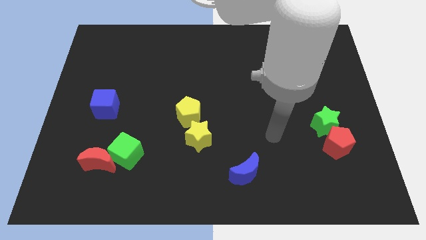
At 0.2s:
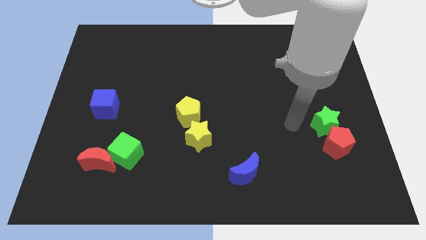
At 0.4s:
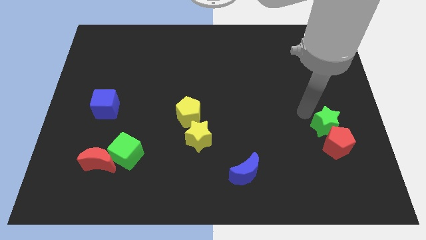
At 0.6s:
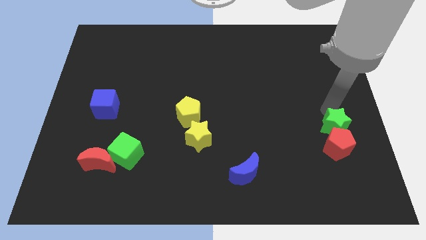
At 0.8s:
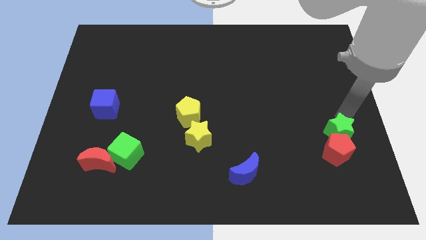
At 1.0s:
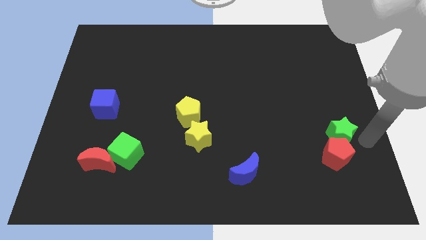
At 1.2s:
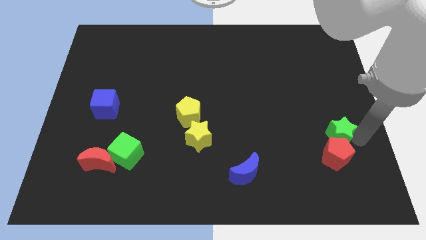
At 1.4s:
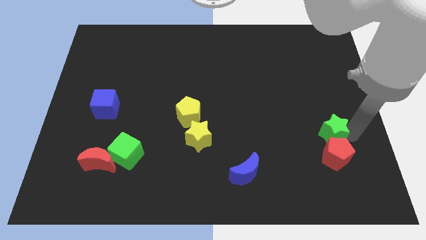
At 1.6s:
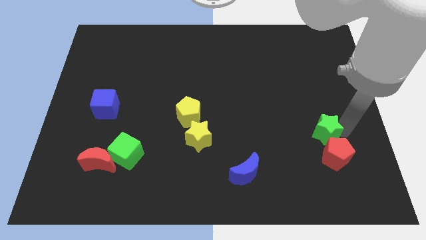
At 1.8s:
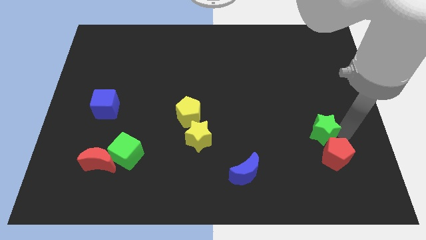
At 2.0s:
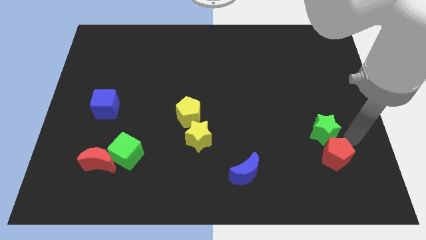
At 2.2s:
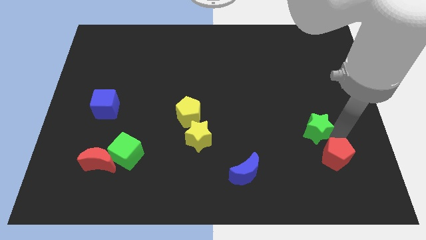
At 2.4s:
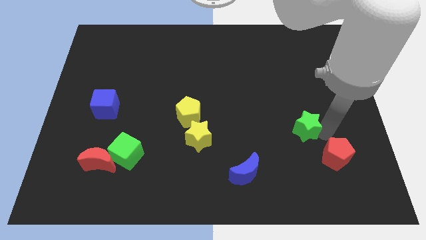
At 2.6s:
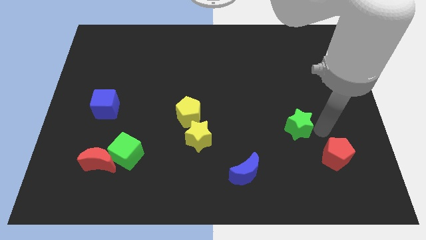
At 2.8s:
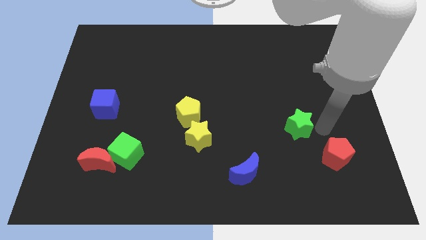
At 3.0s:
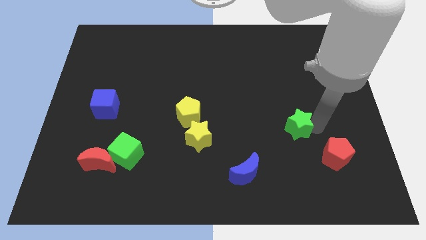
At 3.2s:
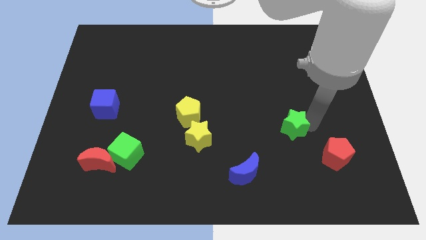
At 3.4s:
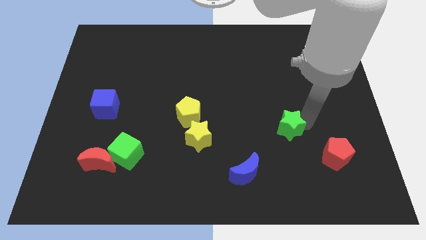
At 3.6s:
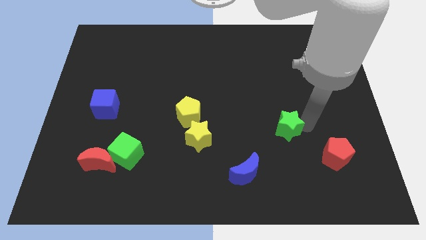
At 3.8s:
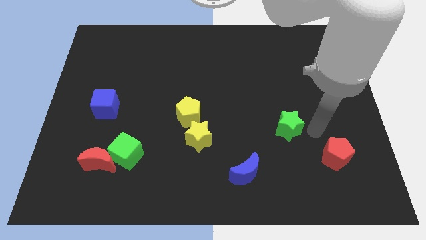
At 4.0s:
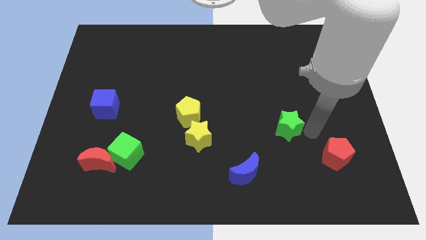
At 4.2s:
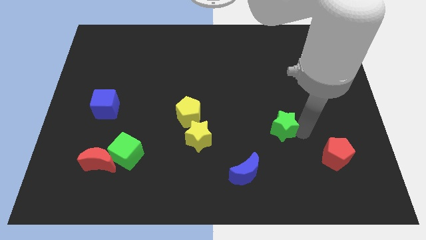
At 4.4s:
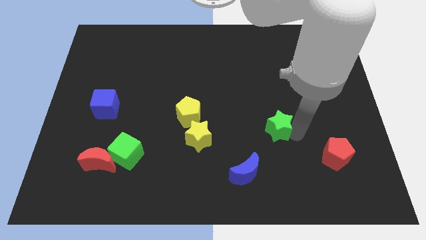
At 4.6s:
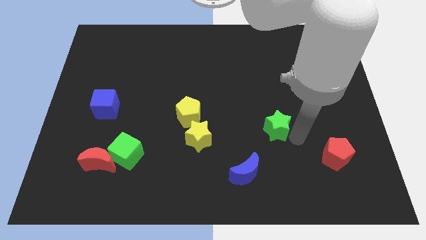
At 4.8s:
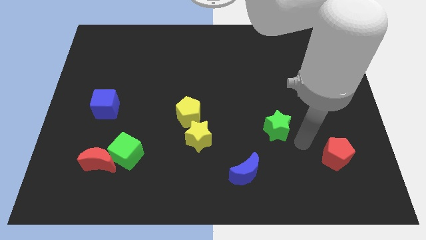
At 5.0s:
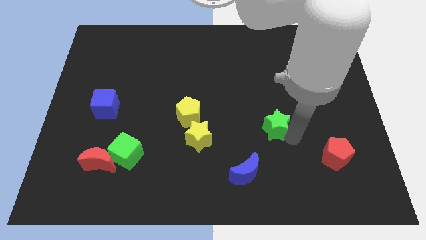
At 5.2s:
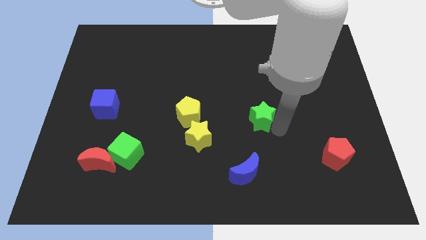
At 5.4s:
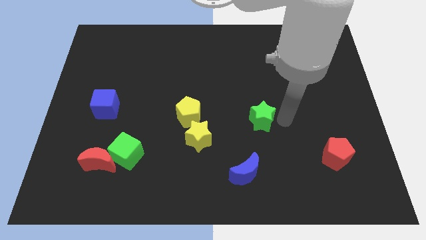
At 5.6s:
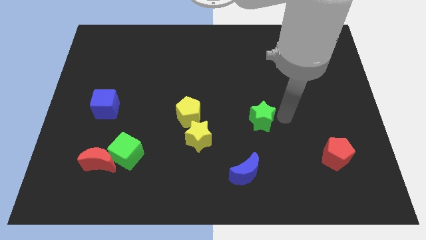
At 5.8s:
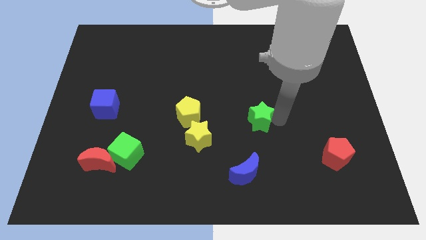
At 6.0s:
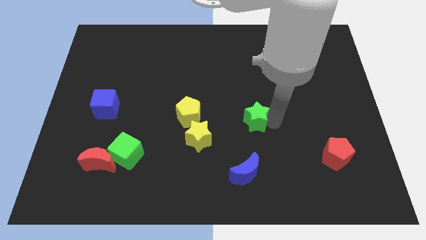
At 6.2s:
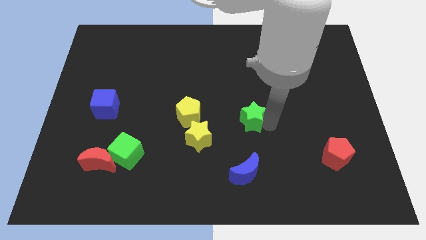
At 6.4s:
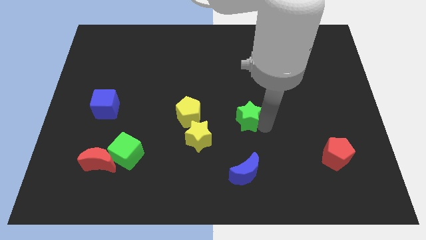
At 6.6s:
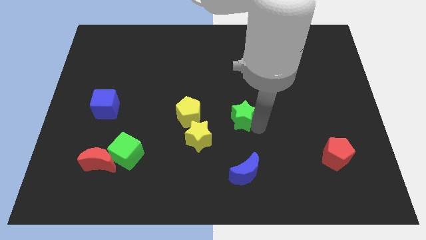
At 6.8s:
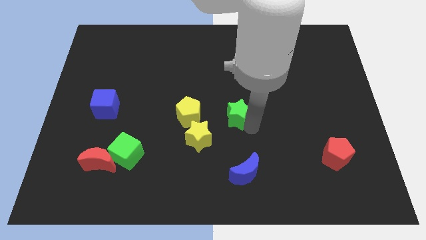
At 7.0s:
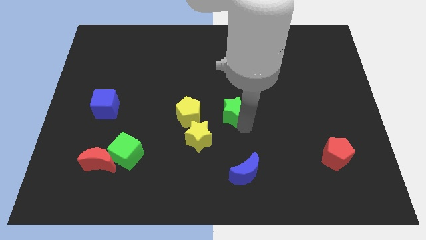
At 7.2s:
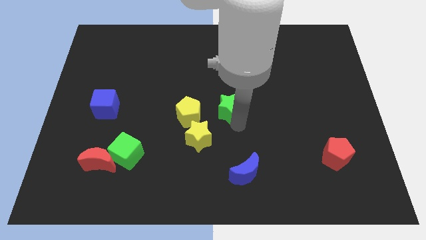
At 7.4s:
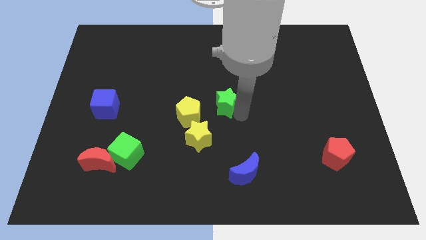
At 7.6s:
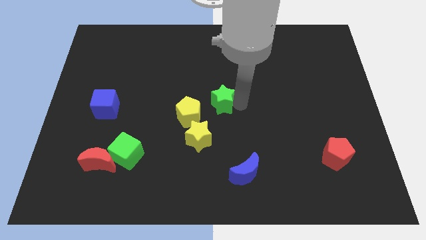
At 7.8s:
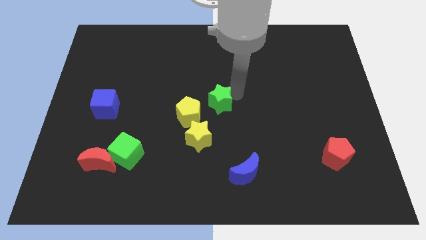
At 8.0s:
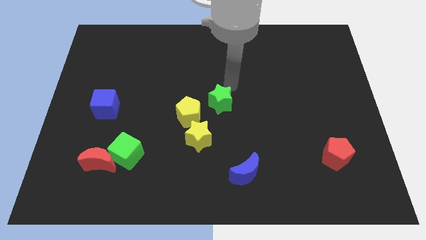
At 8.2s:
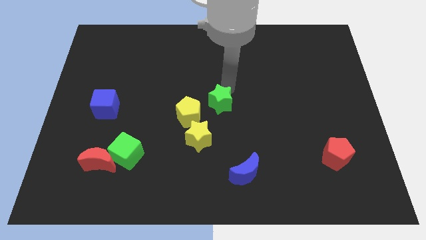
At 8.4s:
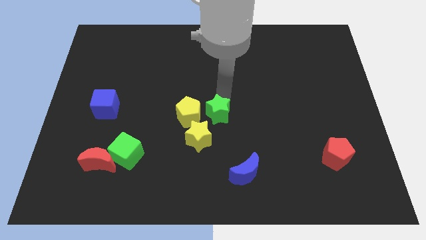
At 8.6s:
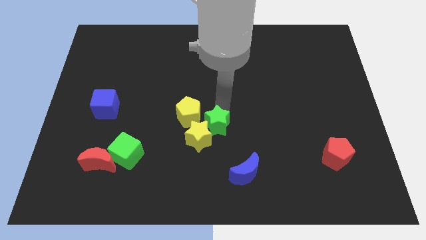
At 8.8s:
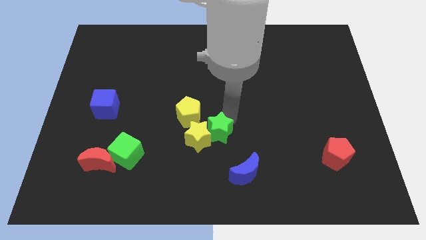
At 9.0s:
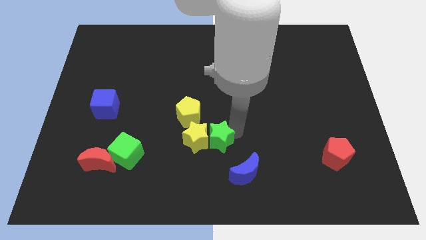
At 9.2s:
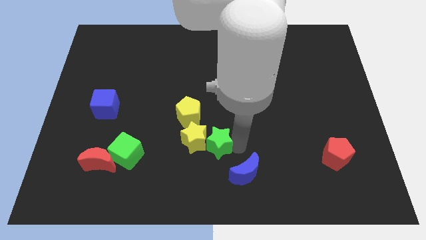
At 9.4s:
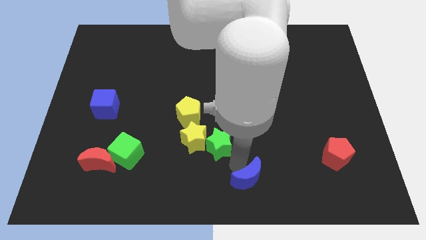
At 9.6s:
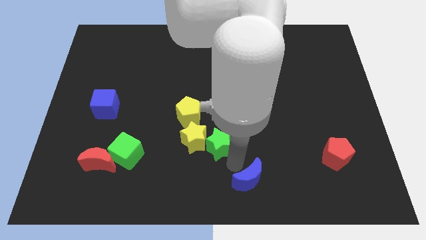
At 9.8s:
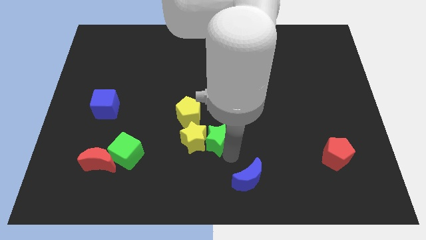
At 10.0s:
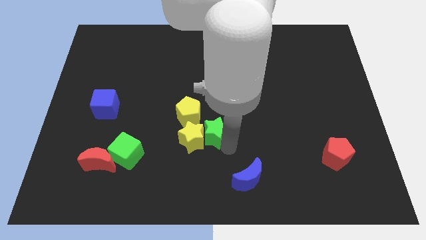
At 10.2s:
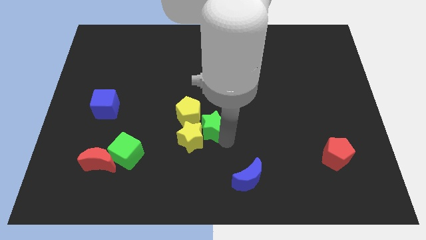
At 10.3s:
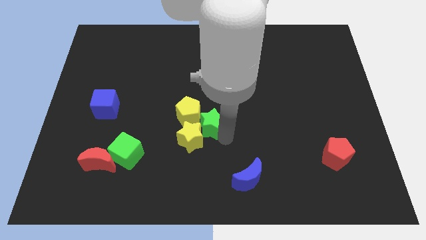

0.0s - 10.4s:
push the green star close to the yellow pentagon

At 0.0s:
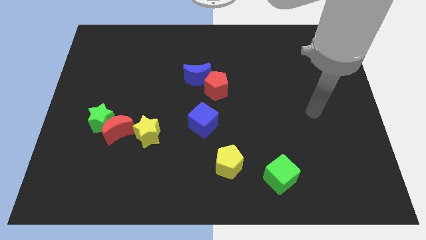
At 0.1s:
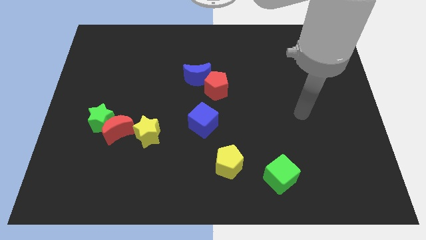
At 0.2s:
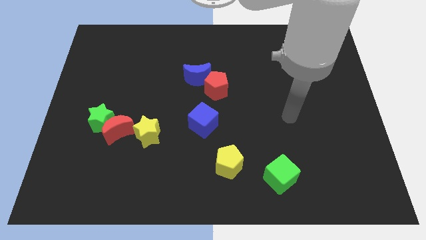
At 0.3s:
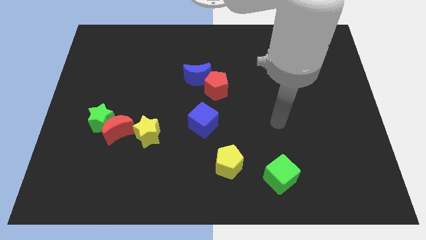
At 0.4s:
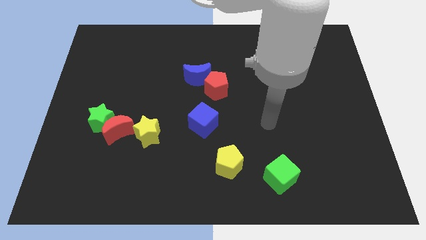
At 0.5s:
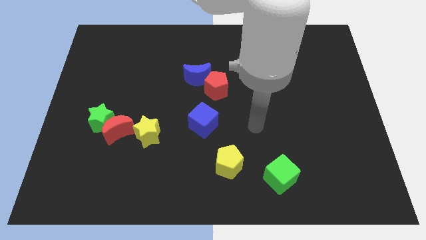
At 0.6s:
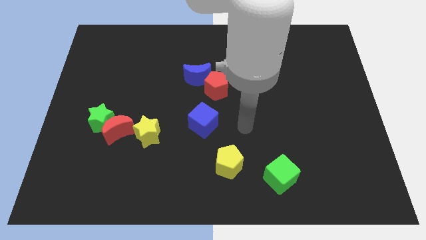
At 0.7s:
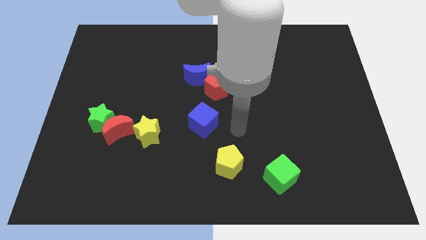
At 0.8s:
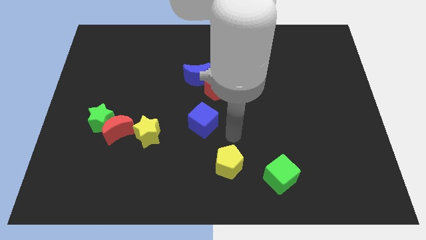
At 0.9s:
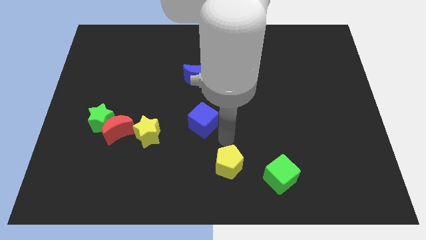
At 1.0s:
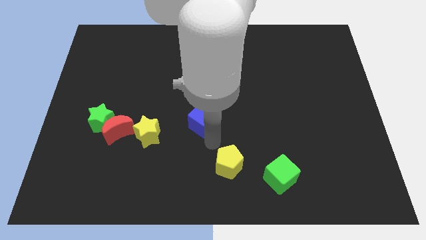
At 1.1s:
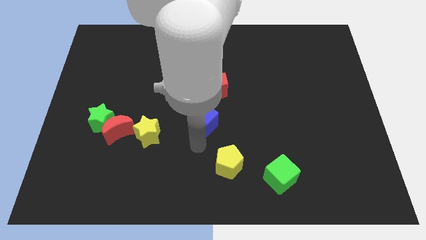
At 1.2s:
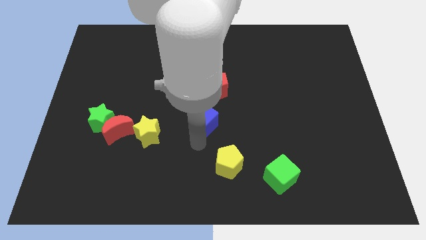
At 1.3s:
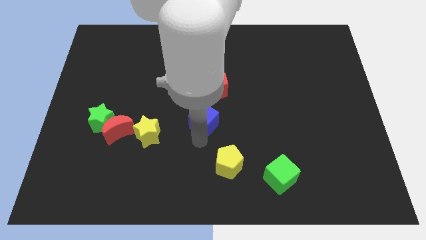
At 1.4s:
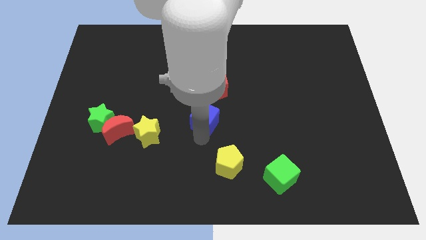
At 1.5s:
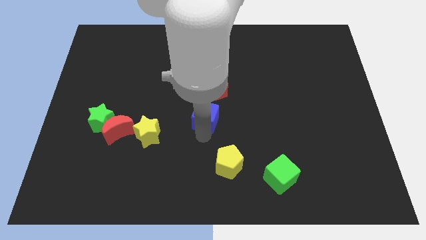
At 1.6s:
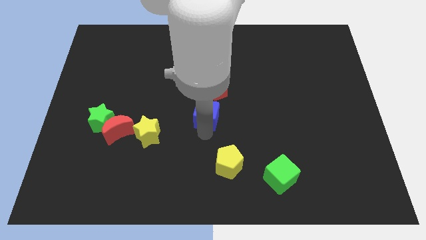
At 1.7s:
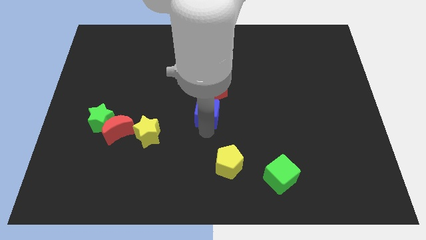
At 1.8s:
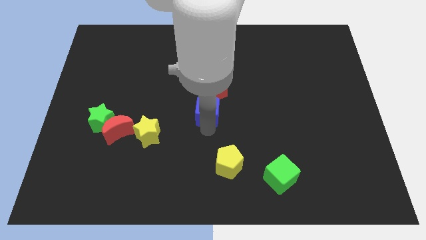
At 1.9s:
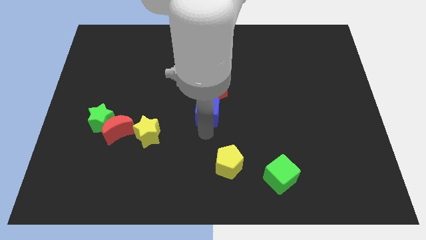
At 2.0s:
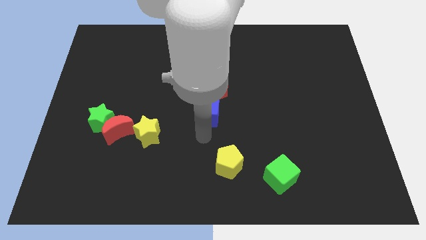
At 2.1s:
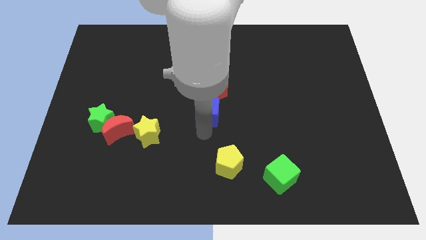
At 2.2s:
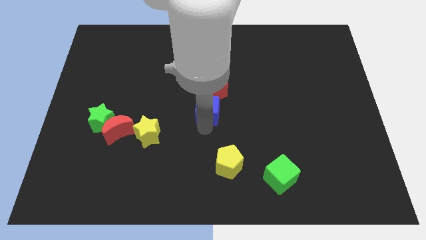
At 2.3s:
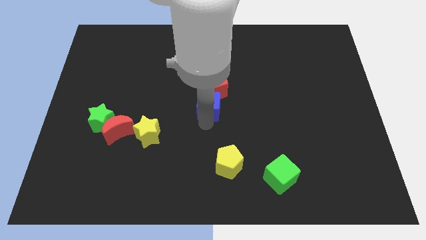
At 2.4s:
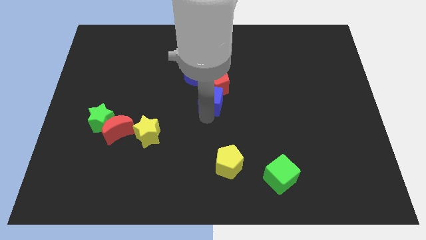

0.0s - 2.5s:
slide the blue cube close to the red pentagon
